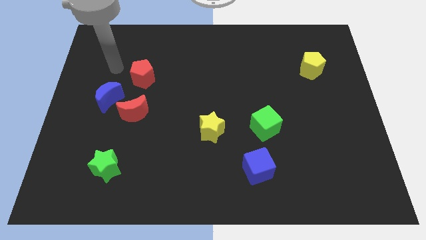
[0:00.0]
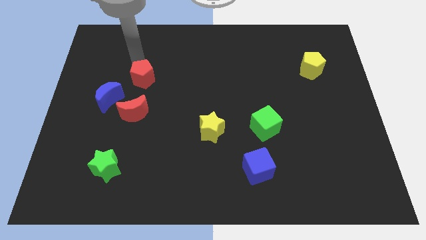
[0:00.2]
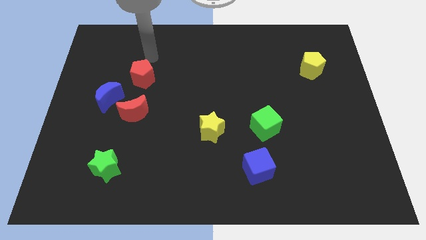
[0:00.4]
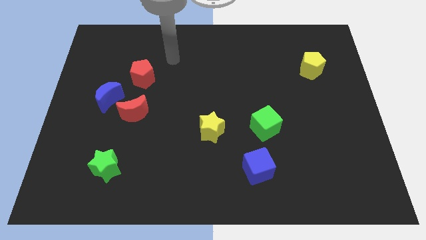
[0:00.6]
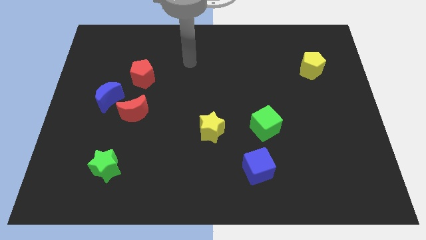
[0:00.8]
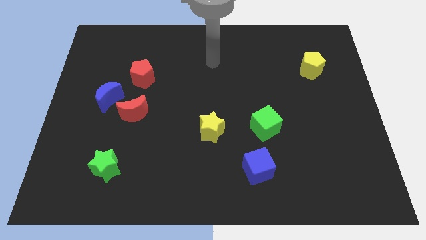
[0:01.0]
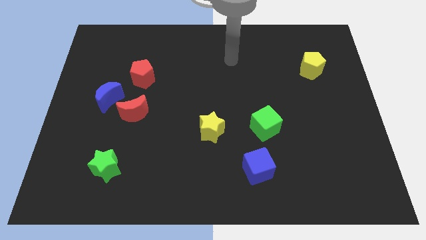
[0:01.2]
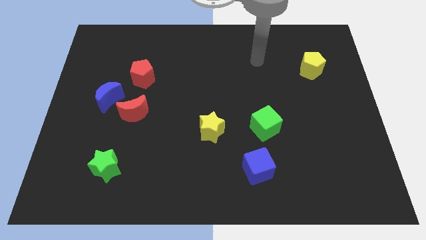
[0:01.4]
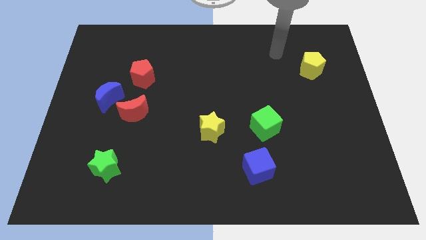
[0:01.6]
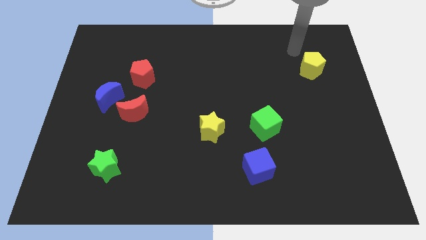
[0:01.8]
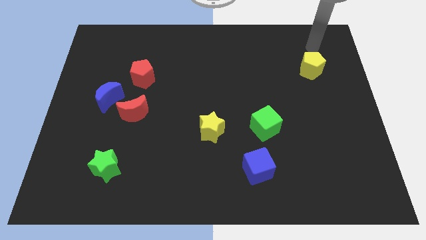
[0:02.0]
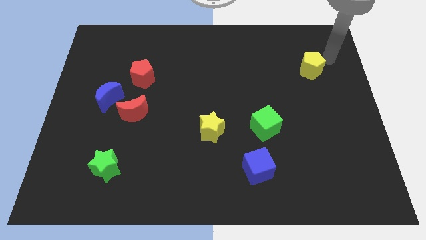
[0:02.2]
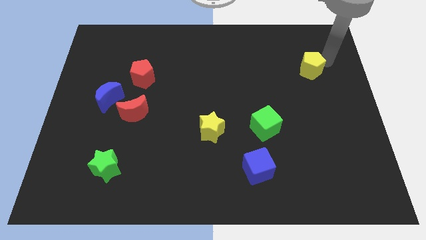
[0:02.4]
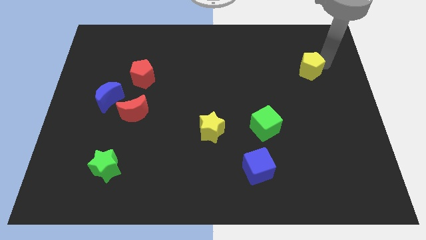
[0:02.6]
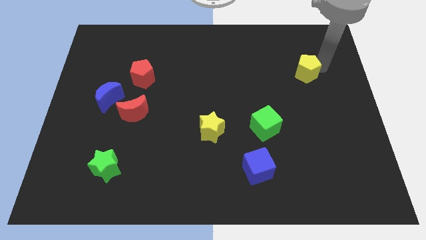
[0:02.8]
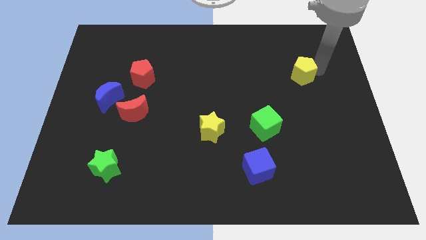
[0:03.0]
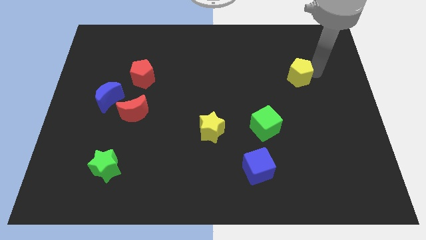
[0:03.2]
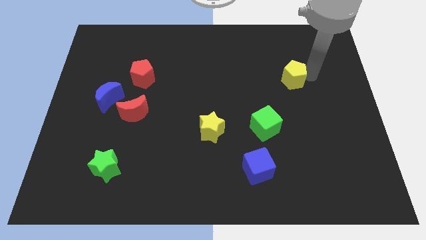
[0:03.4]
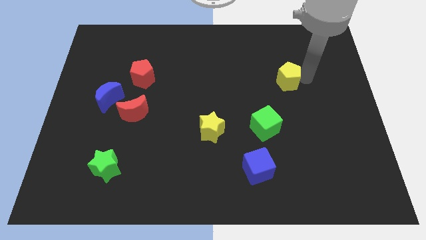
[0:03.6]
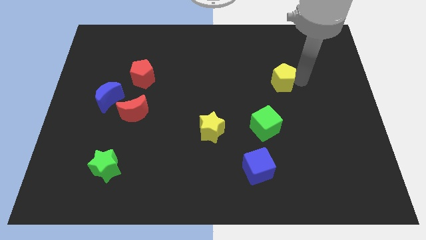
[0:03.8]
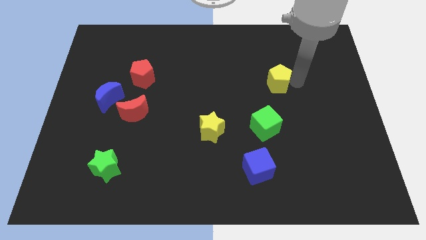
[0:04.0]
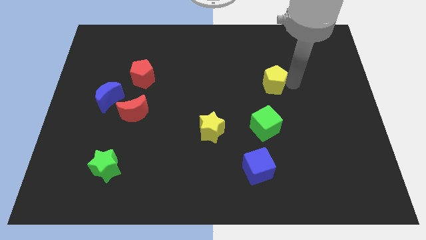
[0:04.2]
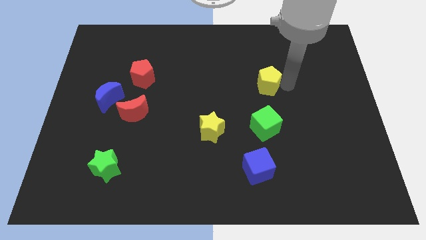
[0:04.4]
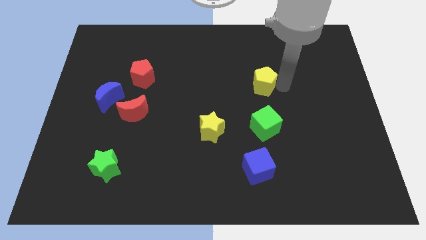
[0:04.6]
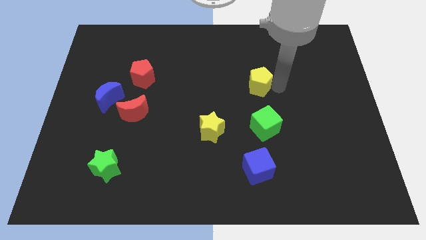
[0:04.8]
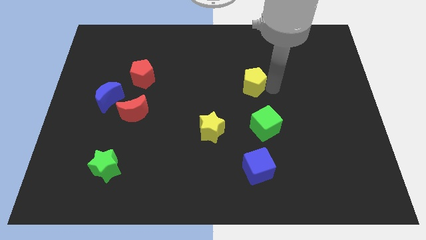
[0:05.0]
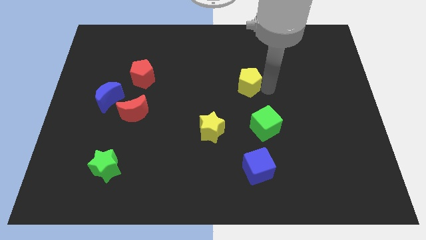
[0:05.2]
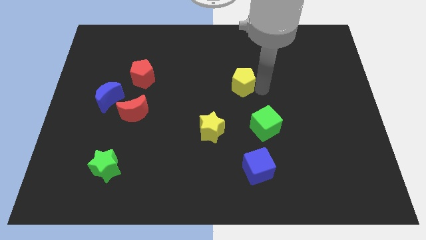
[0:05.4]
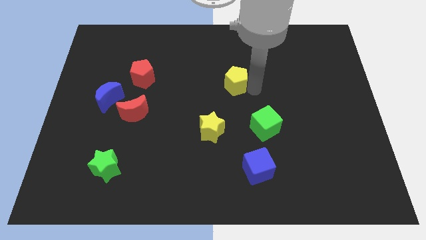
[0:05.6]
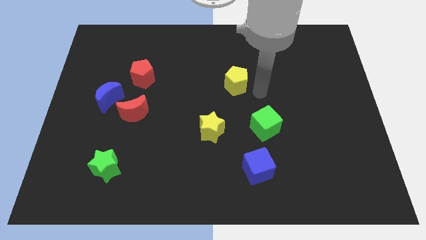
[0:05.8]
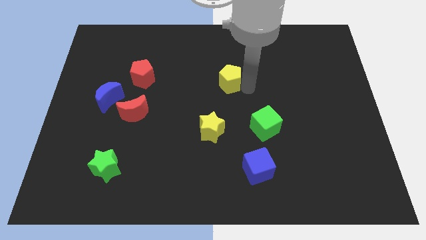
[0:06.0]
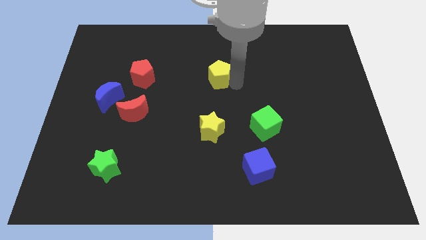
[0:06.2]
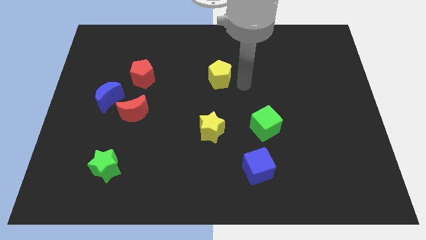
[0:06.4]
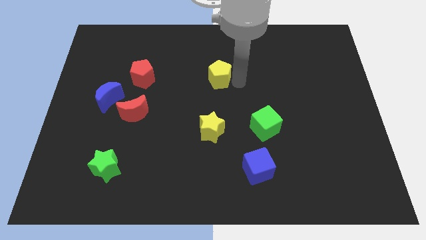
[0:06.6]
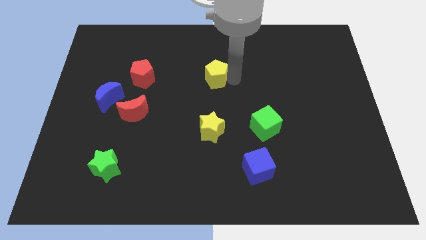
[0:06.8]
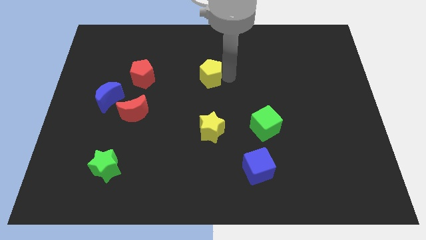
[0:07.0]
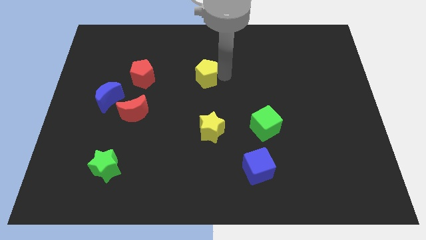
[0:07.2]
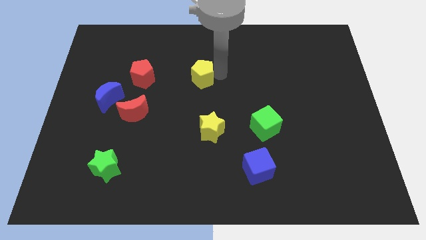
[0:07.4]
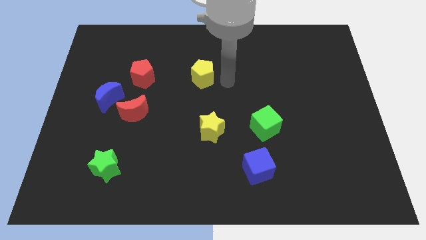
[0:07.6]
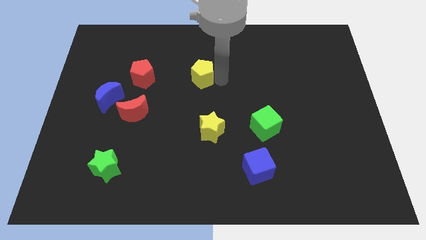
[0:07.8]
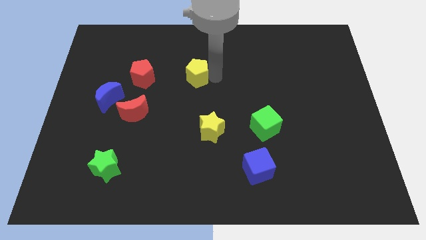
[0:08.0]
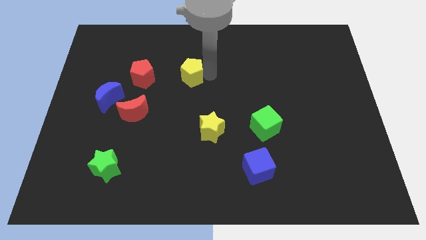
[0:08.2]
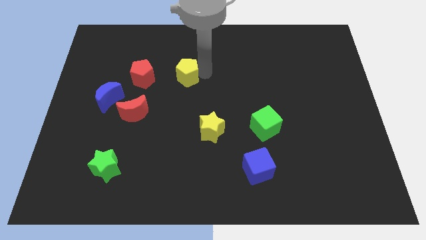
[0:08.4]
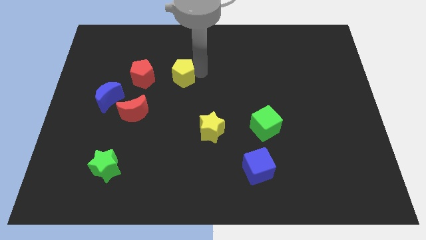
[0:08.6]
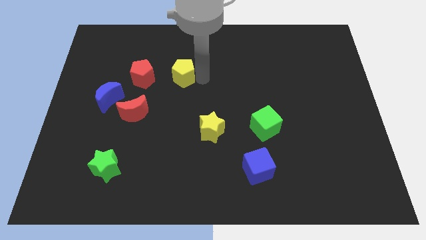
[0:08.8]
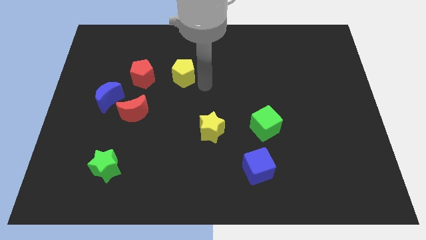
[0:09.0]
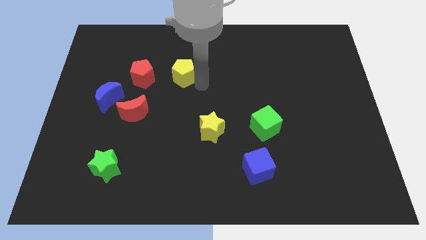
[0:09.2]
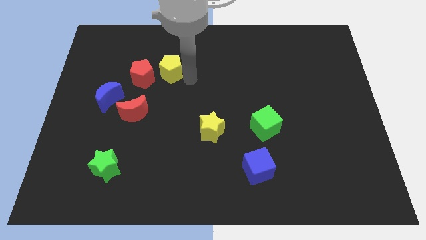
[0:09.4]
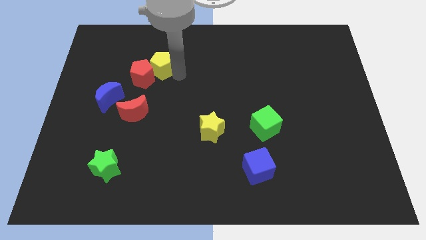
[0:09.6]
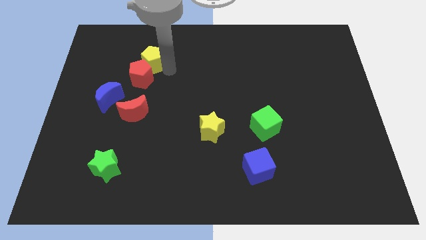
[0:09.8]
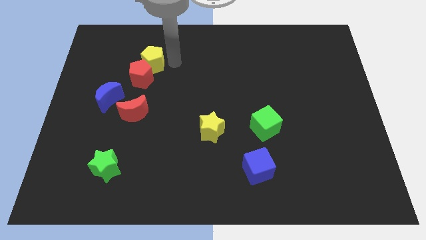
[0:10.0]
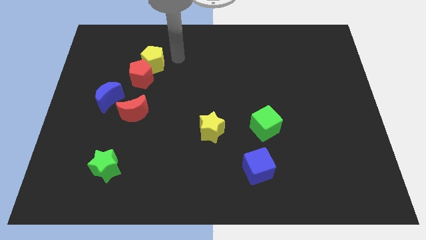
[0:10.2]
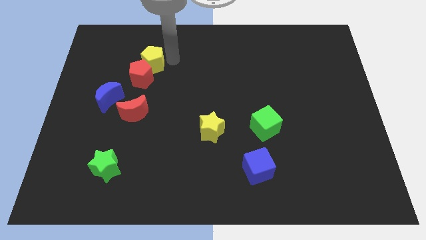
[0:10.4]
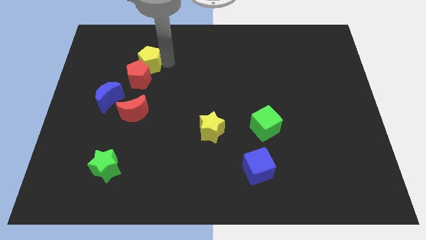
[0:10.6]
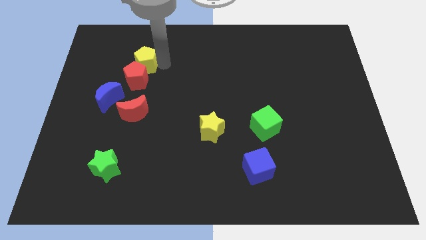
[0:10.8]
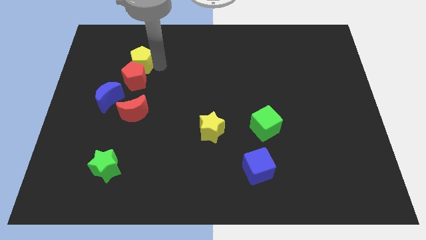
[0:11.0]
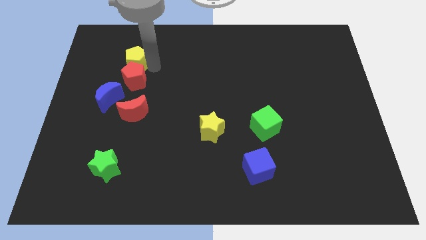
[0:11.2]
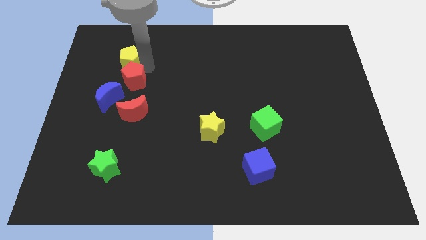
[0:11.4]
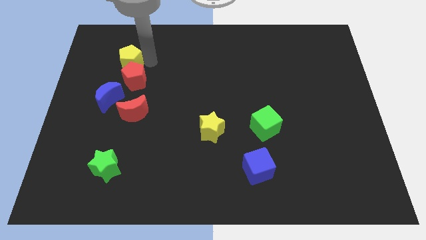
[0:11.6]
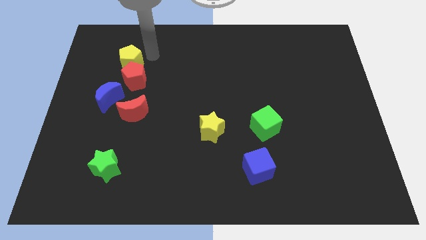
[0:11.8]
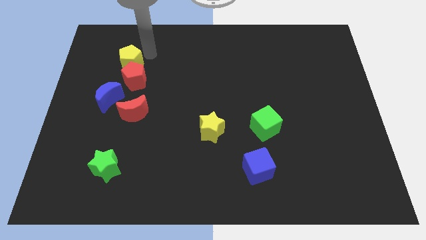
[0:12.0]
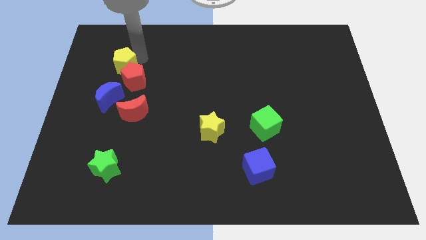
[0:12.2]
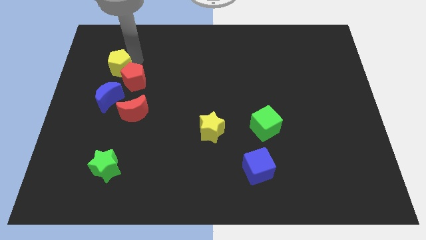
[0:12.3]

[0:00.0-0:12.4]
put the yellow pentagon to the left of the red pentagon

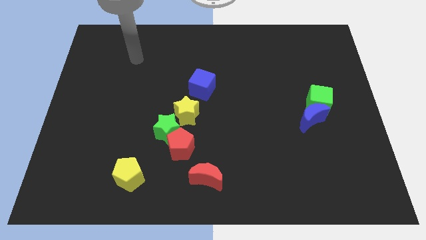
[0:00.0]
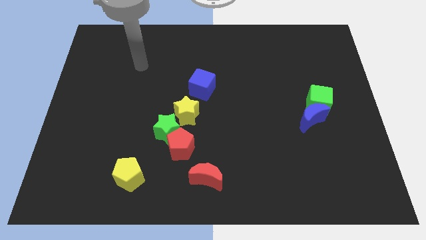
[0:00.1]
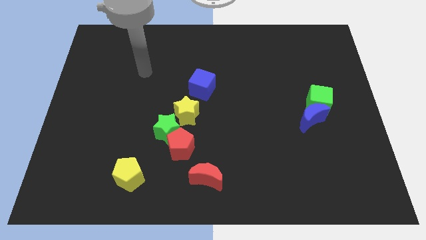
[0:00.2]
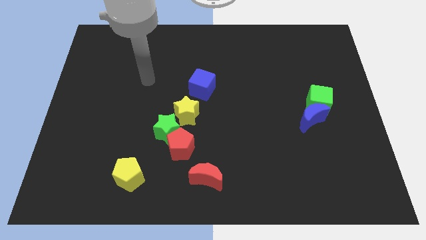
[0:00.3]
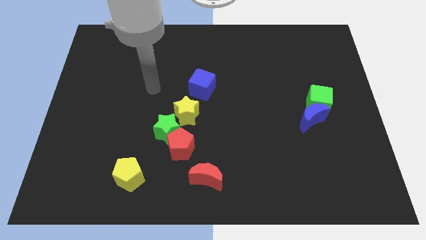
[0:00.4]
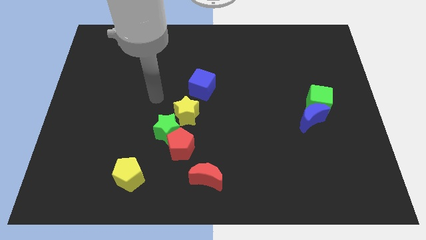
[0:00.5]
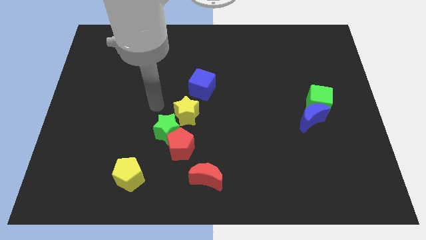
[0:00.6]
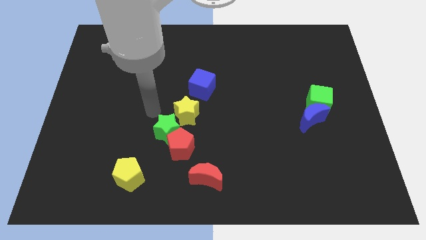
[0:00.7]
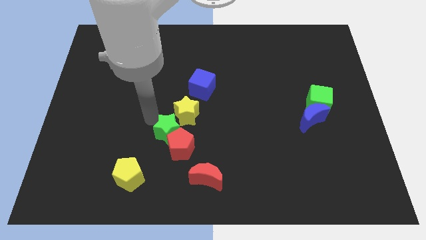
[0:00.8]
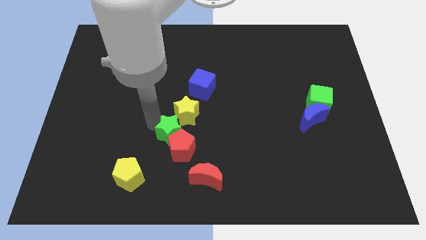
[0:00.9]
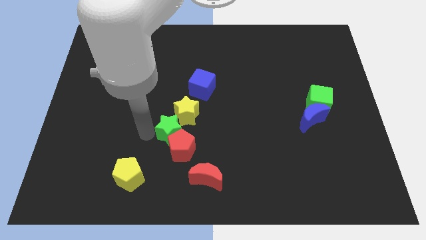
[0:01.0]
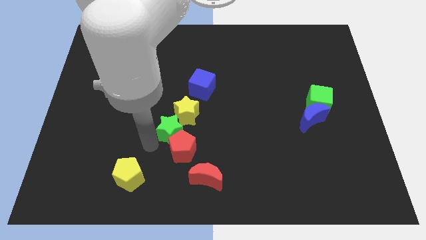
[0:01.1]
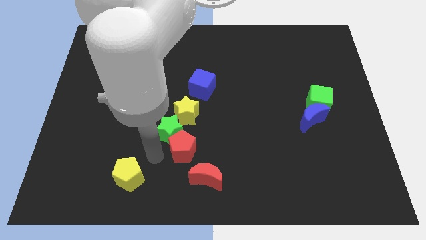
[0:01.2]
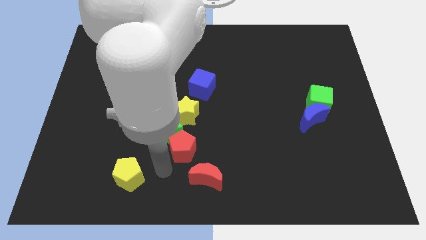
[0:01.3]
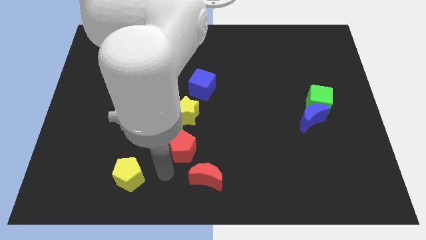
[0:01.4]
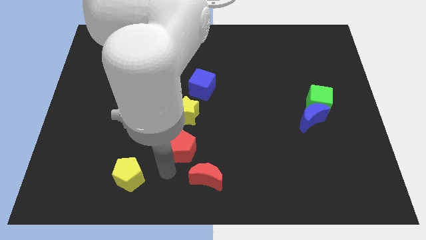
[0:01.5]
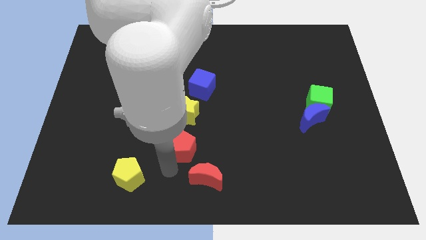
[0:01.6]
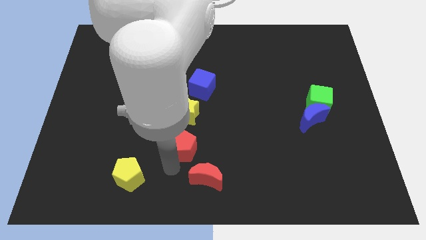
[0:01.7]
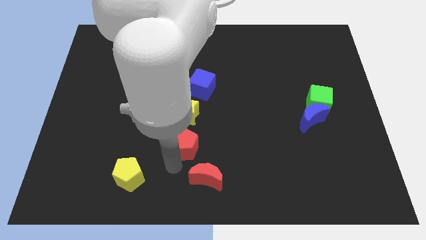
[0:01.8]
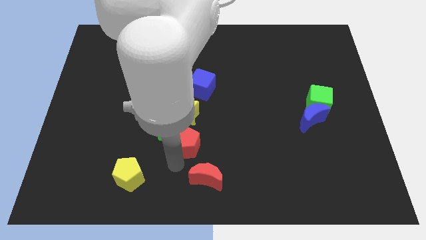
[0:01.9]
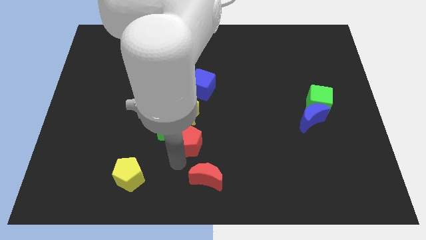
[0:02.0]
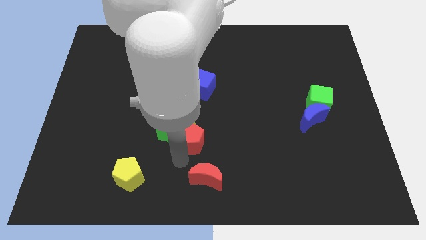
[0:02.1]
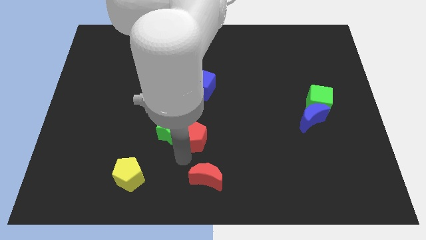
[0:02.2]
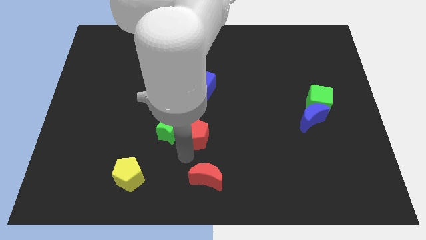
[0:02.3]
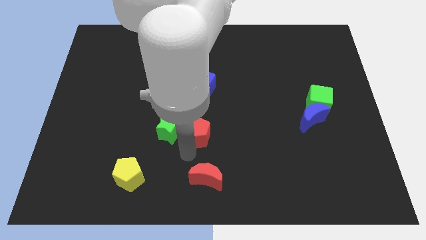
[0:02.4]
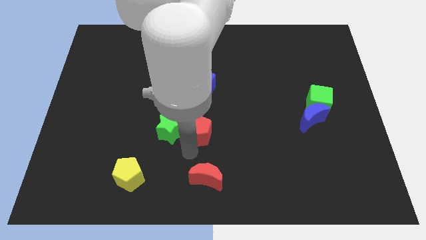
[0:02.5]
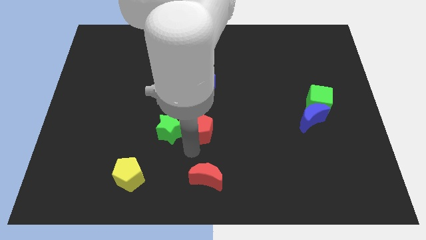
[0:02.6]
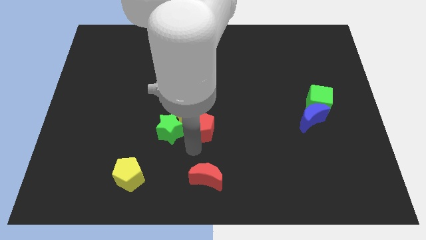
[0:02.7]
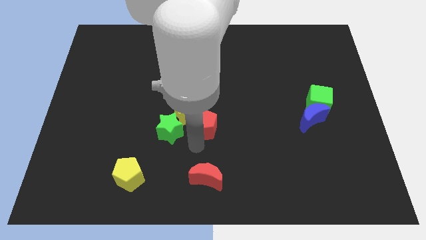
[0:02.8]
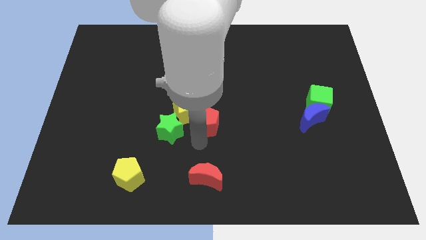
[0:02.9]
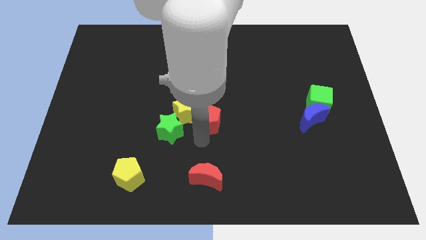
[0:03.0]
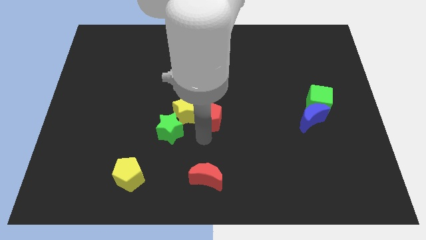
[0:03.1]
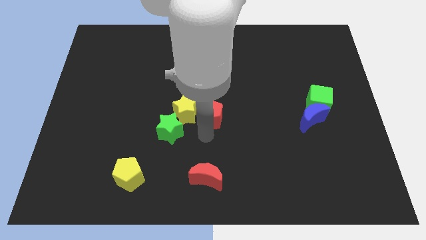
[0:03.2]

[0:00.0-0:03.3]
move the red pentagon to the bottom right side of the blue cube
